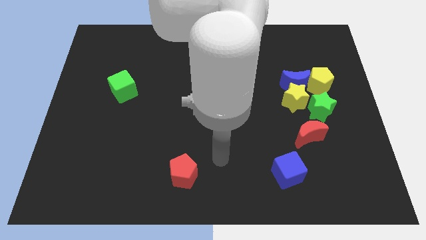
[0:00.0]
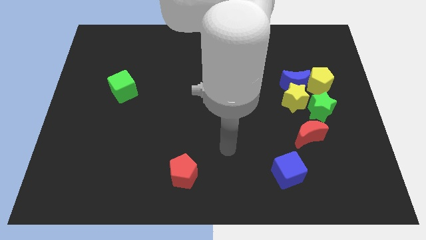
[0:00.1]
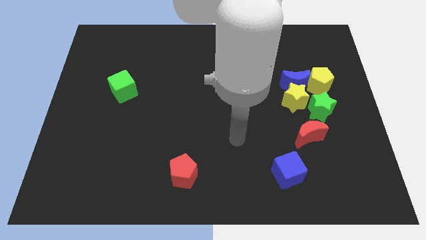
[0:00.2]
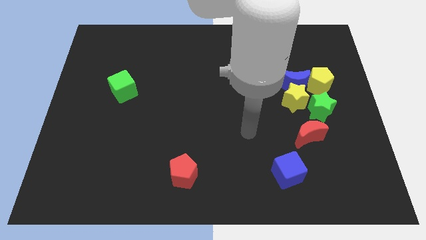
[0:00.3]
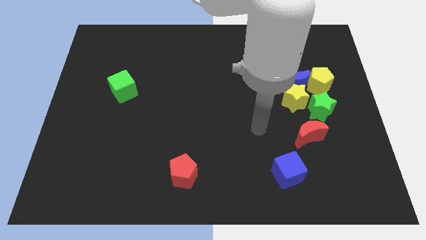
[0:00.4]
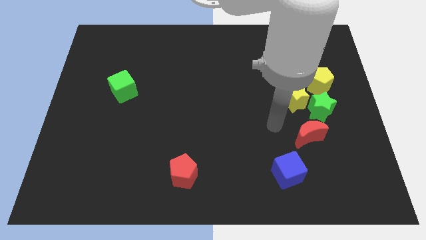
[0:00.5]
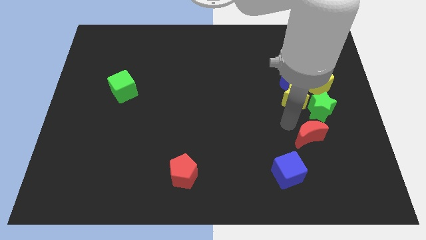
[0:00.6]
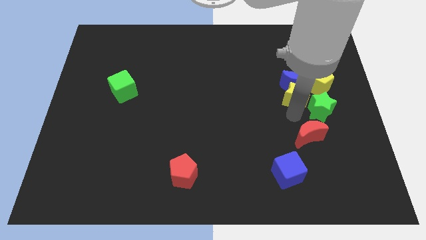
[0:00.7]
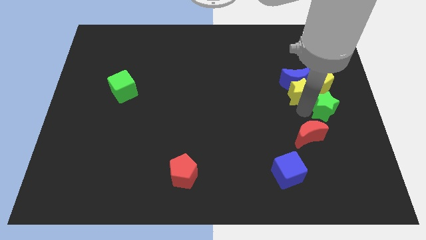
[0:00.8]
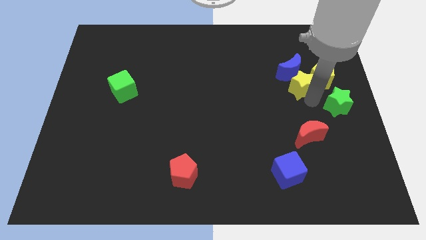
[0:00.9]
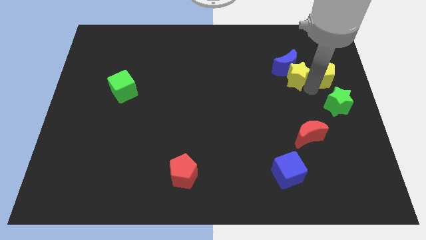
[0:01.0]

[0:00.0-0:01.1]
move the blue moon away from the group

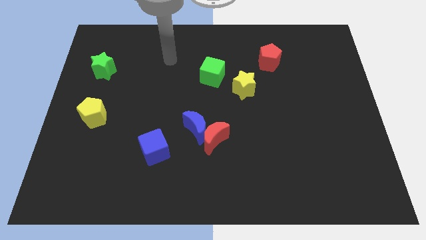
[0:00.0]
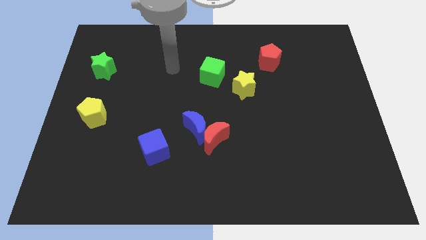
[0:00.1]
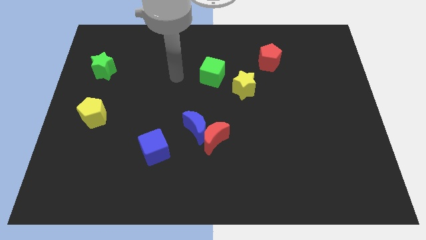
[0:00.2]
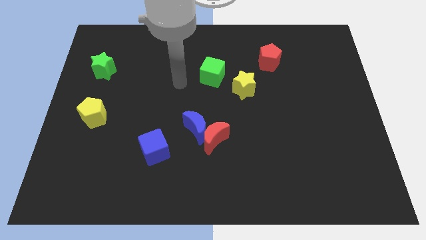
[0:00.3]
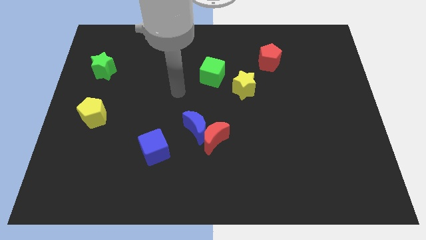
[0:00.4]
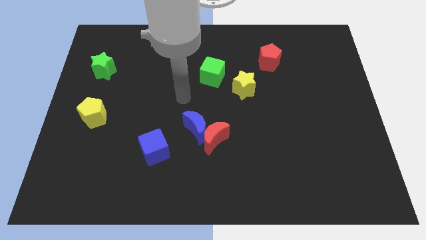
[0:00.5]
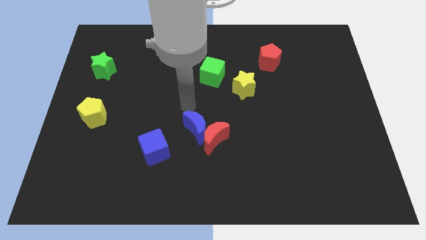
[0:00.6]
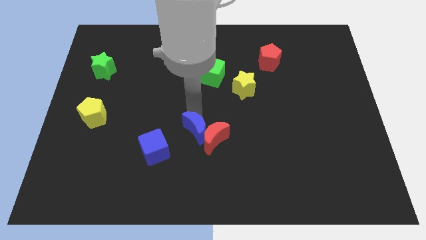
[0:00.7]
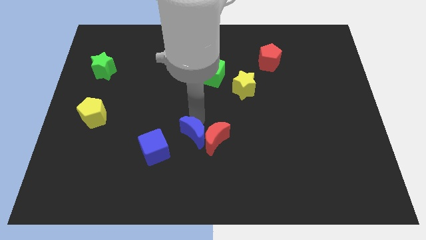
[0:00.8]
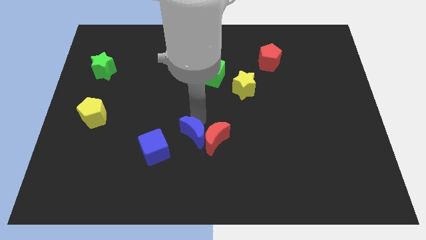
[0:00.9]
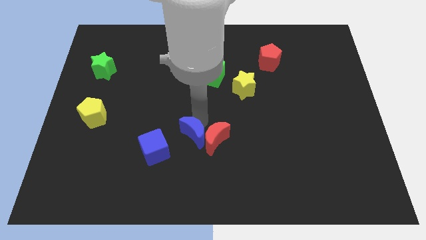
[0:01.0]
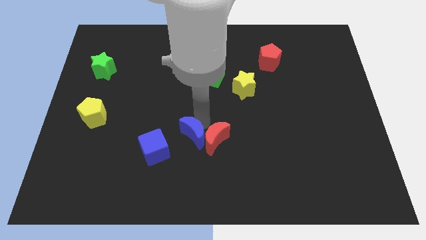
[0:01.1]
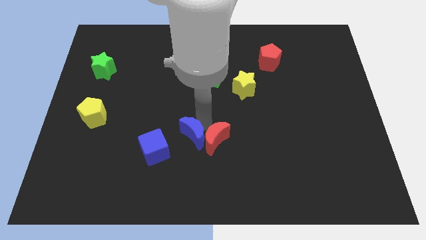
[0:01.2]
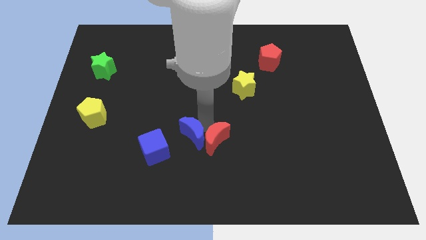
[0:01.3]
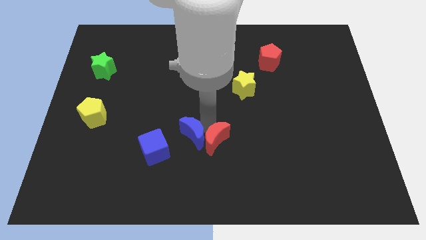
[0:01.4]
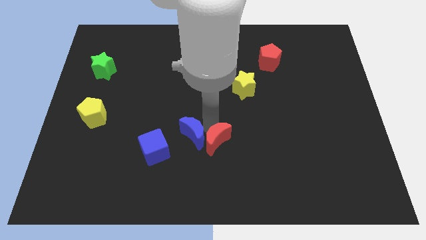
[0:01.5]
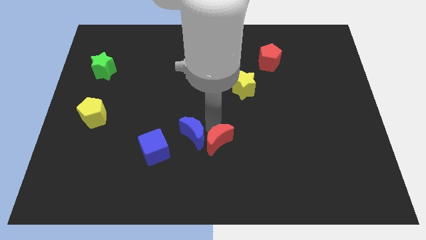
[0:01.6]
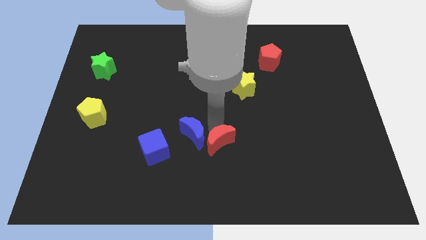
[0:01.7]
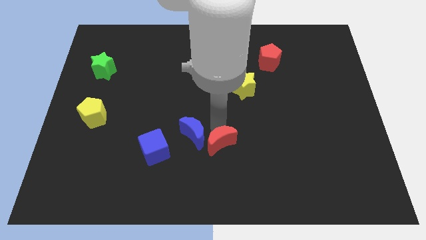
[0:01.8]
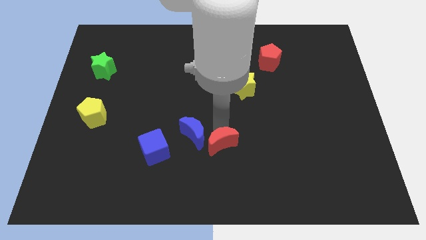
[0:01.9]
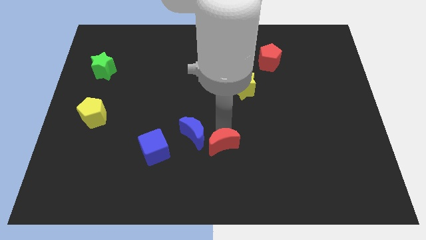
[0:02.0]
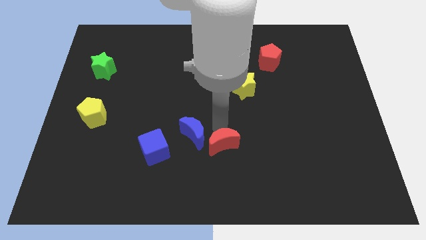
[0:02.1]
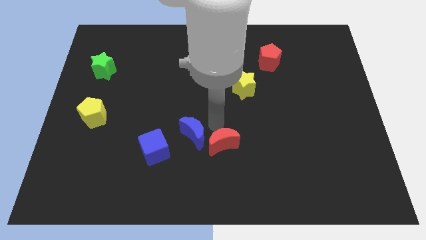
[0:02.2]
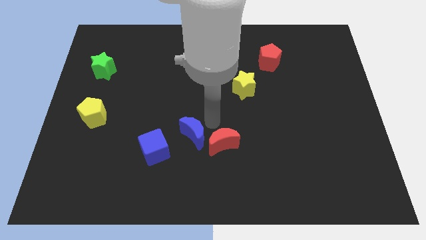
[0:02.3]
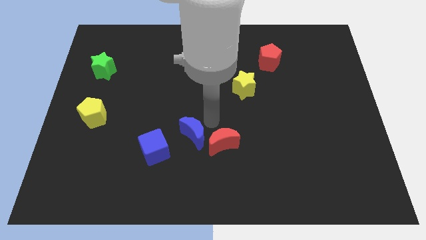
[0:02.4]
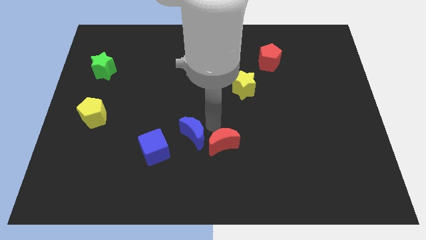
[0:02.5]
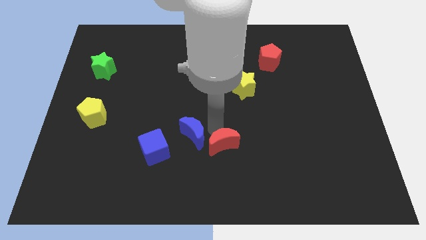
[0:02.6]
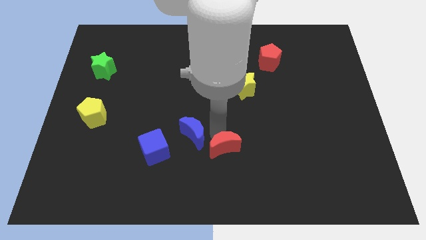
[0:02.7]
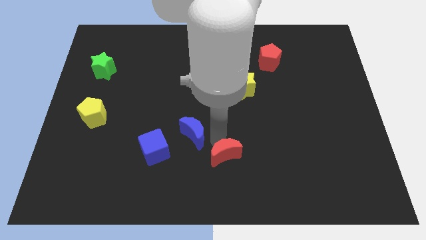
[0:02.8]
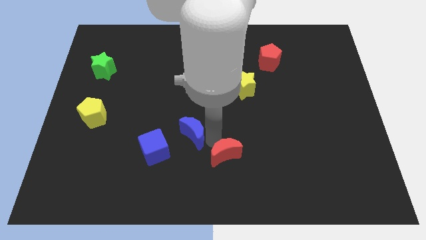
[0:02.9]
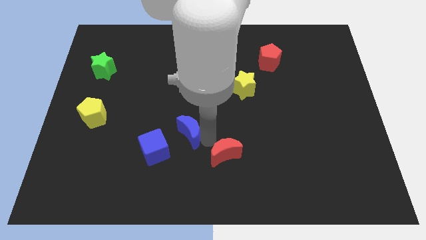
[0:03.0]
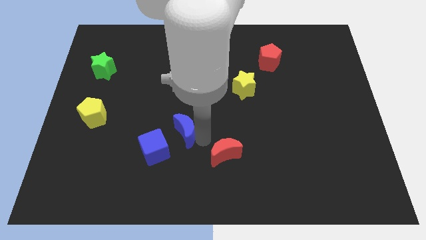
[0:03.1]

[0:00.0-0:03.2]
separate the red moon from the blue moon

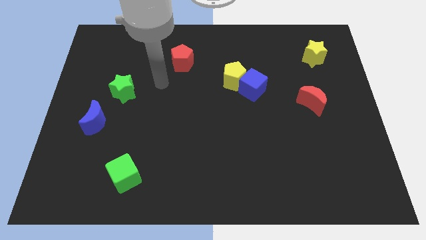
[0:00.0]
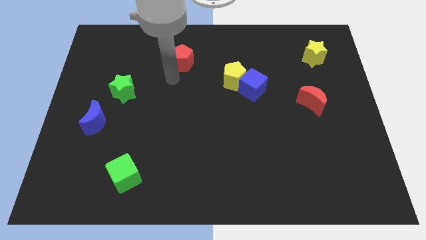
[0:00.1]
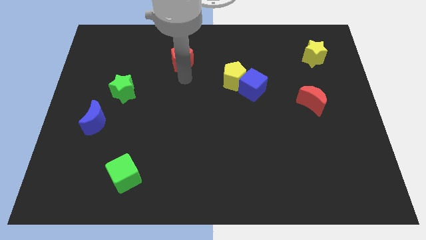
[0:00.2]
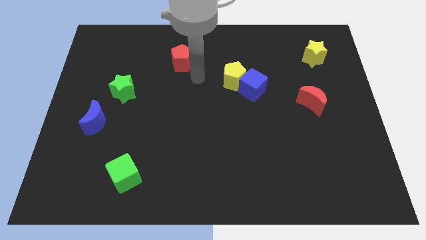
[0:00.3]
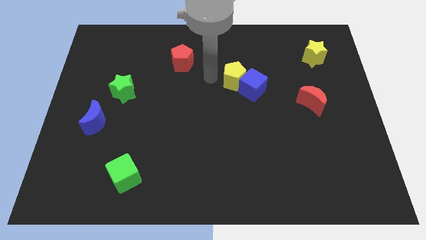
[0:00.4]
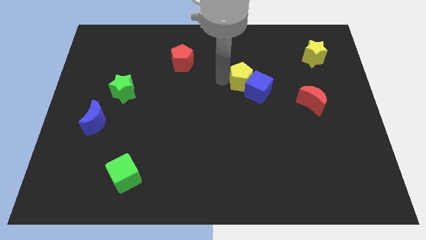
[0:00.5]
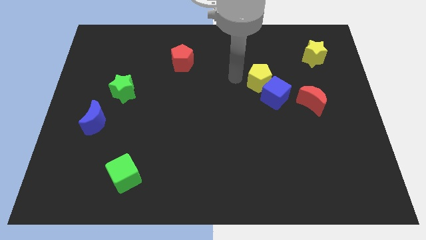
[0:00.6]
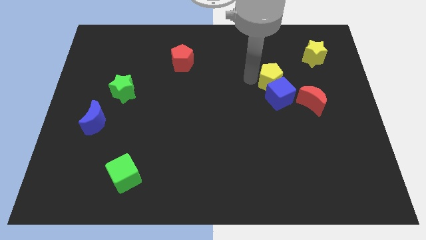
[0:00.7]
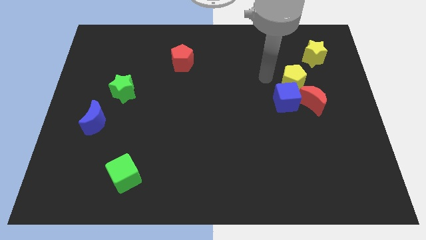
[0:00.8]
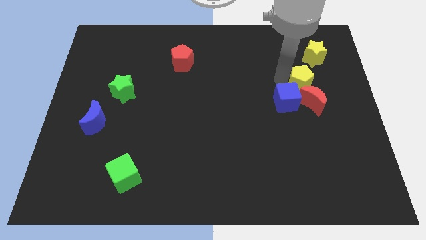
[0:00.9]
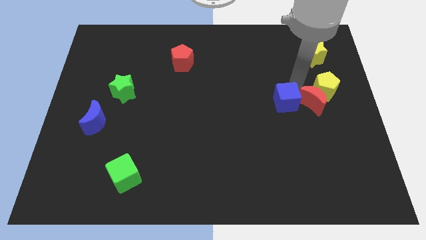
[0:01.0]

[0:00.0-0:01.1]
pull the blue cube apart from the yellow pentagon

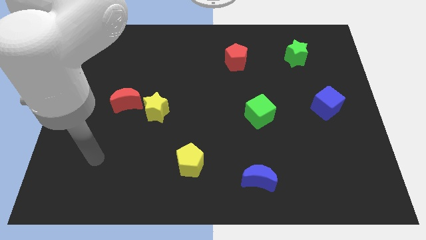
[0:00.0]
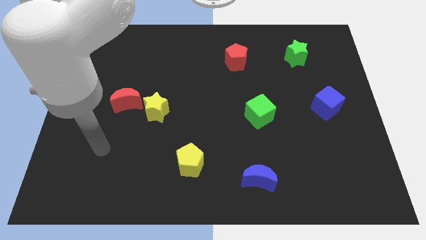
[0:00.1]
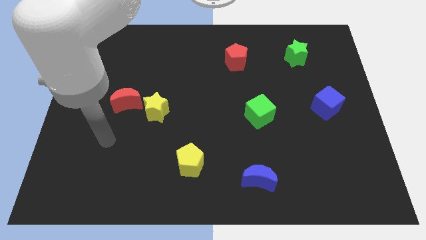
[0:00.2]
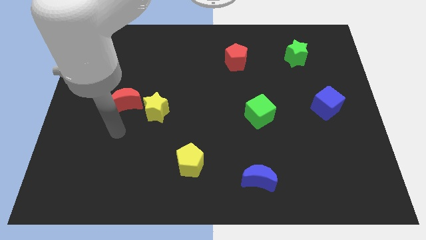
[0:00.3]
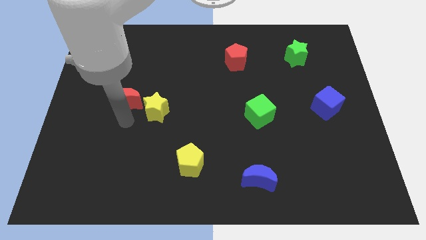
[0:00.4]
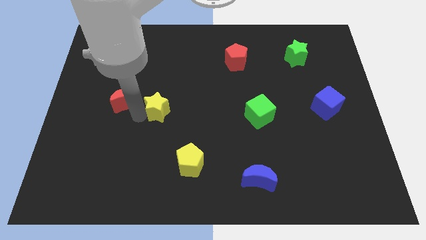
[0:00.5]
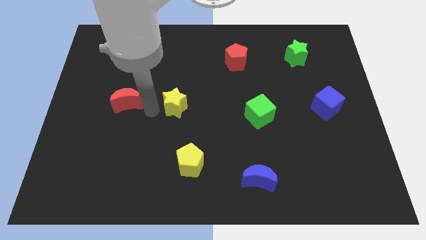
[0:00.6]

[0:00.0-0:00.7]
separate the red moon from the yellow star

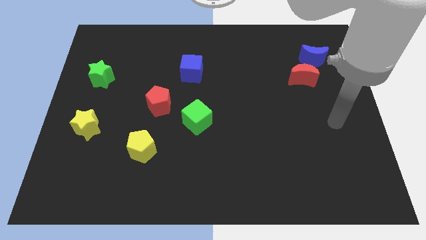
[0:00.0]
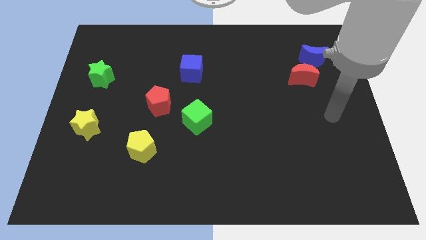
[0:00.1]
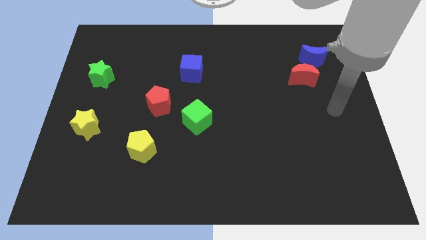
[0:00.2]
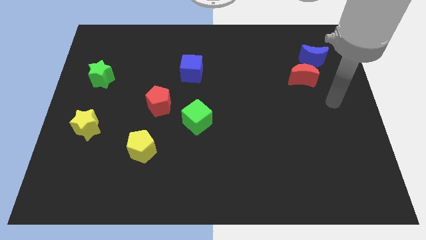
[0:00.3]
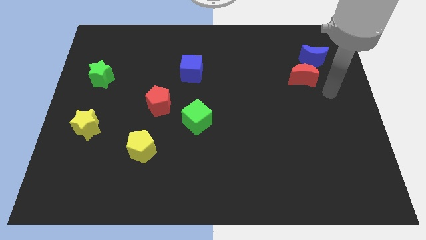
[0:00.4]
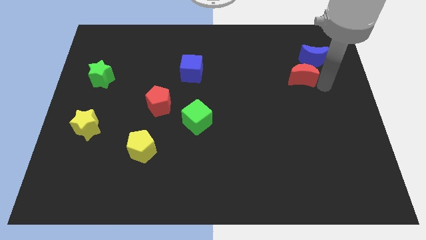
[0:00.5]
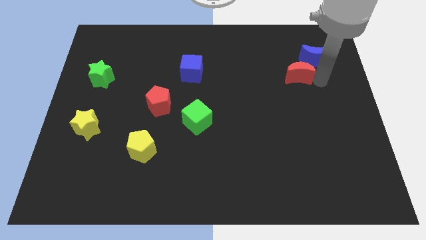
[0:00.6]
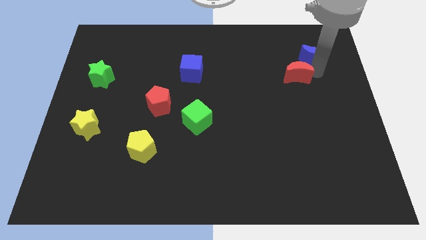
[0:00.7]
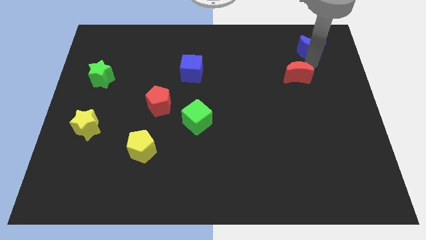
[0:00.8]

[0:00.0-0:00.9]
pull the red moon apart from the blue moon

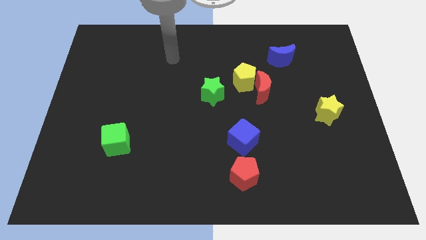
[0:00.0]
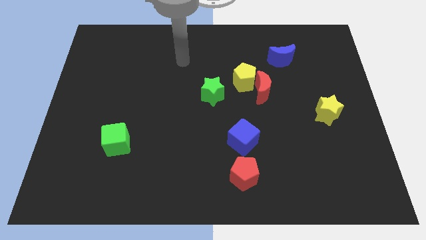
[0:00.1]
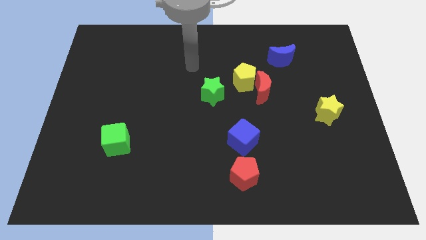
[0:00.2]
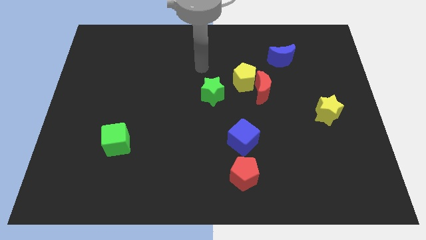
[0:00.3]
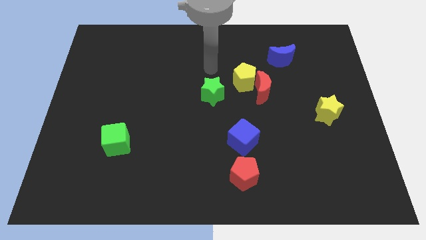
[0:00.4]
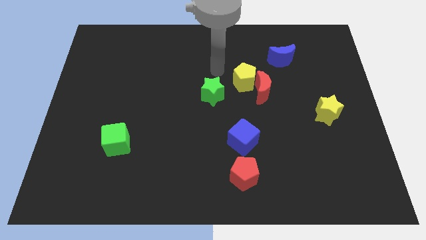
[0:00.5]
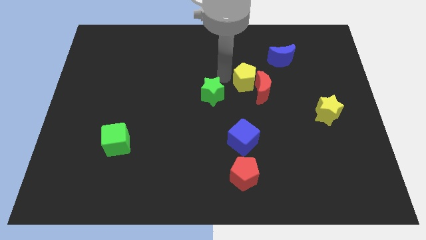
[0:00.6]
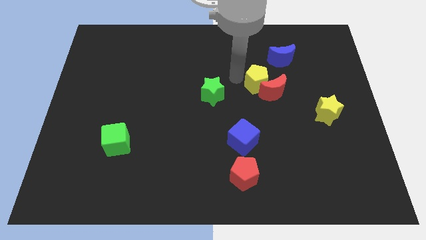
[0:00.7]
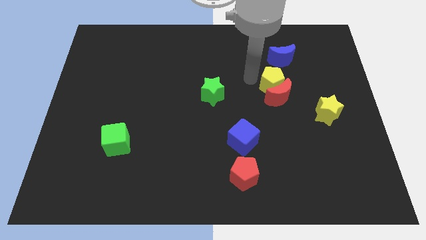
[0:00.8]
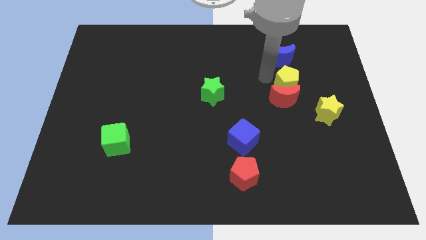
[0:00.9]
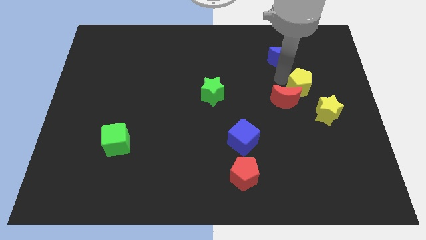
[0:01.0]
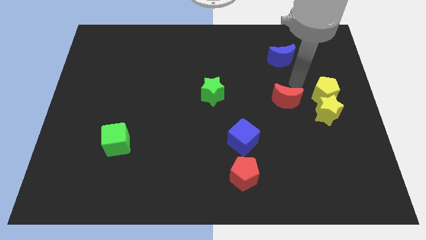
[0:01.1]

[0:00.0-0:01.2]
move the red moon away from the yellow pentagon

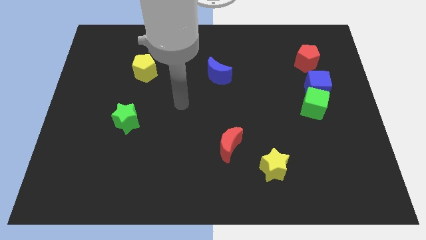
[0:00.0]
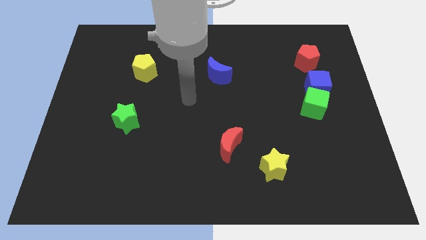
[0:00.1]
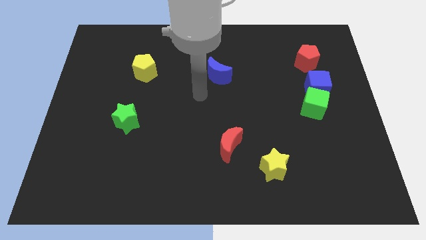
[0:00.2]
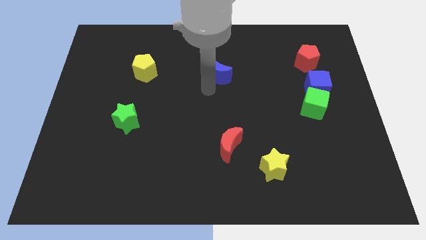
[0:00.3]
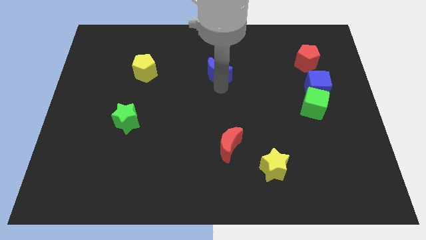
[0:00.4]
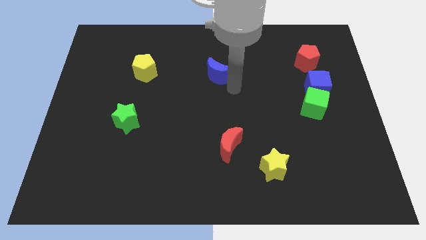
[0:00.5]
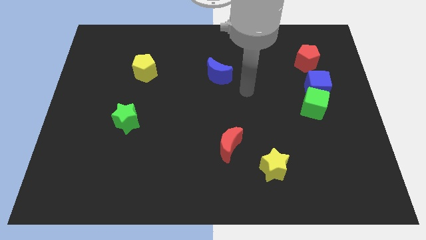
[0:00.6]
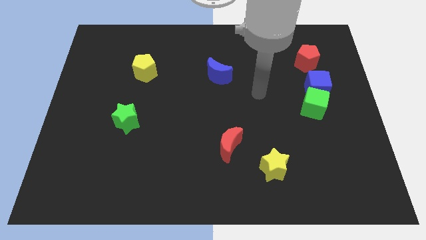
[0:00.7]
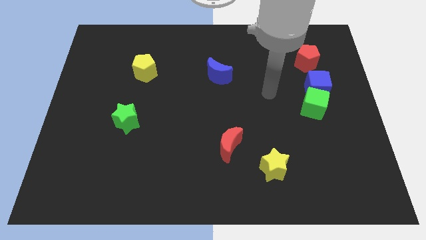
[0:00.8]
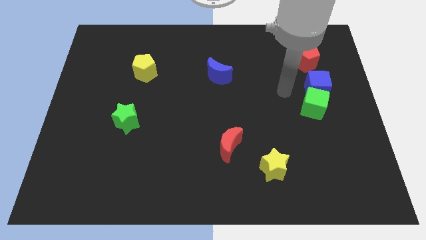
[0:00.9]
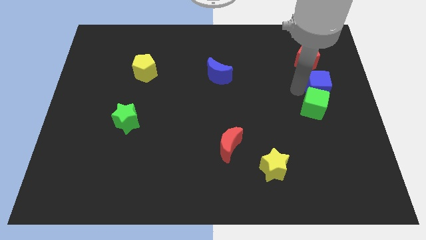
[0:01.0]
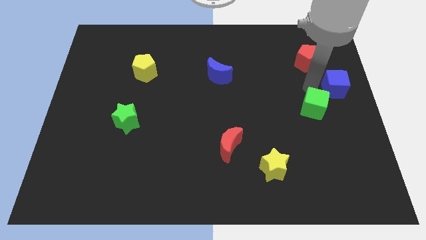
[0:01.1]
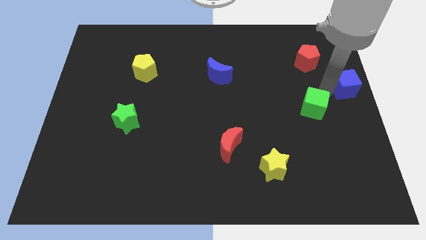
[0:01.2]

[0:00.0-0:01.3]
pull the green cube apart from the blue cube
